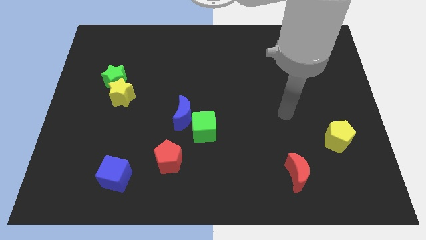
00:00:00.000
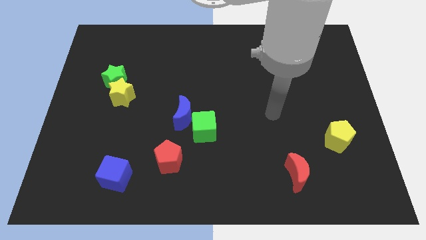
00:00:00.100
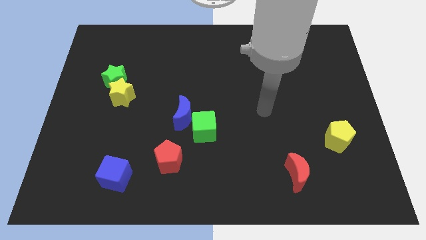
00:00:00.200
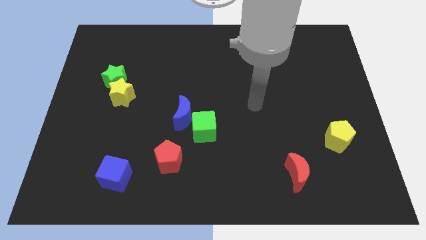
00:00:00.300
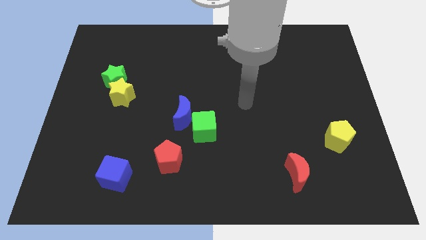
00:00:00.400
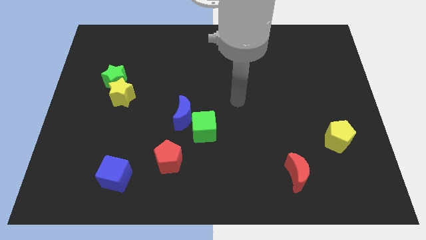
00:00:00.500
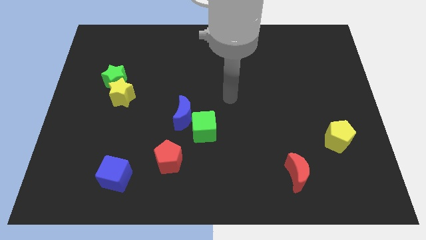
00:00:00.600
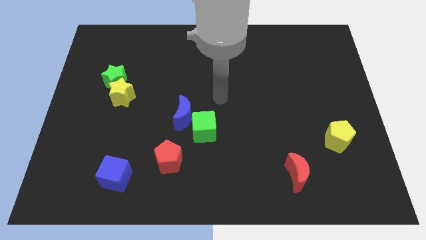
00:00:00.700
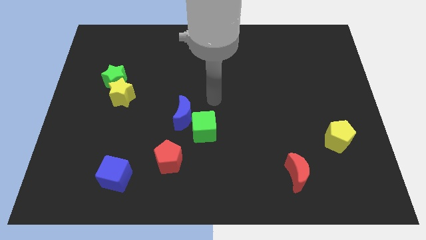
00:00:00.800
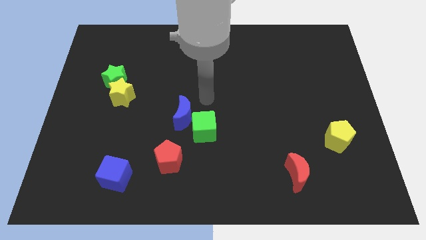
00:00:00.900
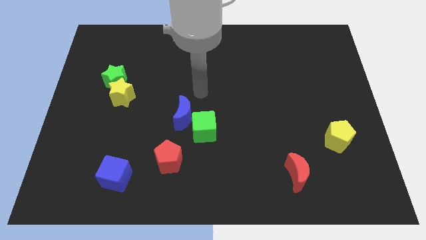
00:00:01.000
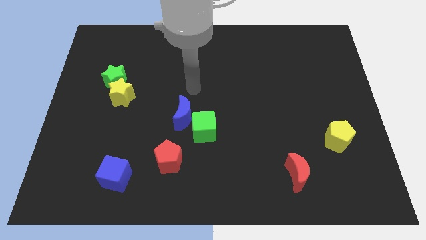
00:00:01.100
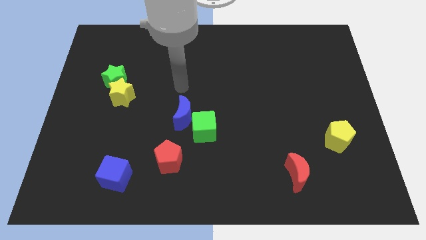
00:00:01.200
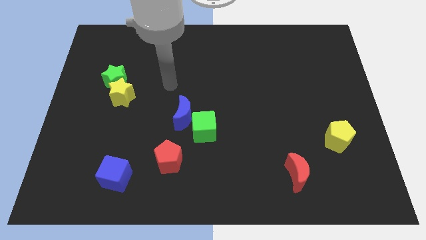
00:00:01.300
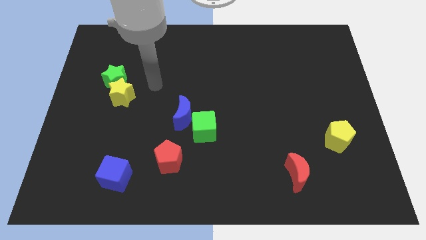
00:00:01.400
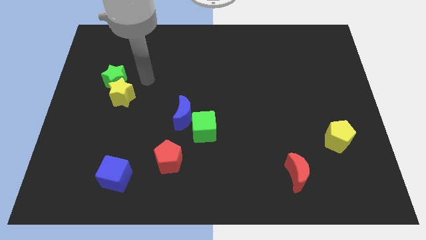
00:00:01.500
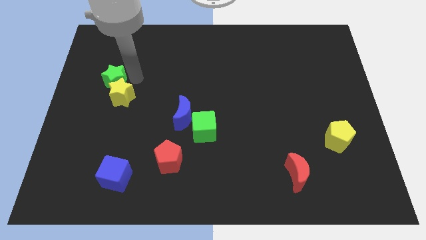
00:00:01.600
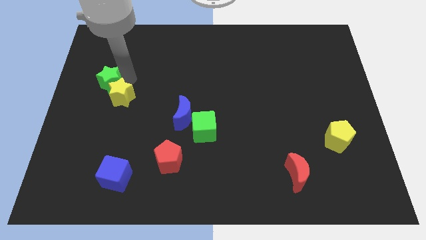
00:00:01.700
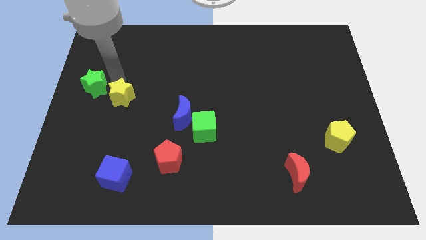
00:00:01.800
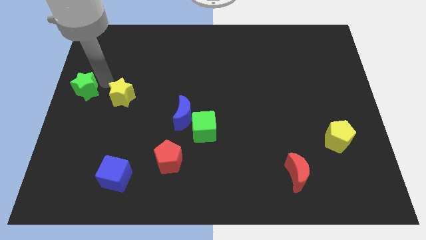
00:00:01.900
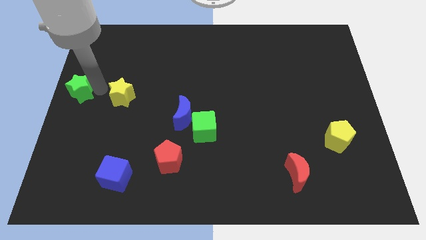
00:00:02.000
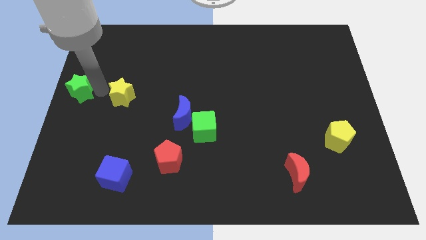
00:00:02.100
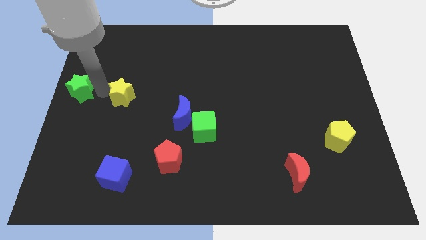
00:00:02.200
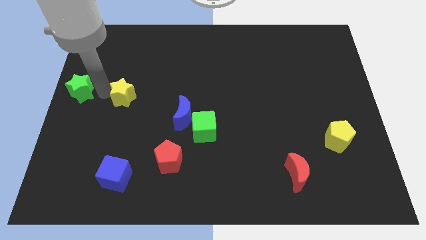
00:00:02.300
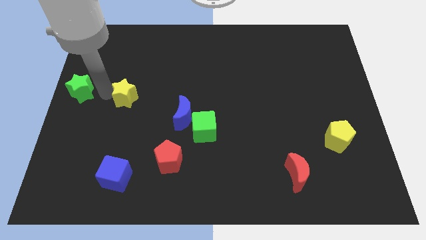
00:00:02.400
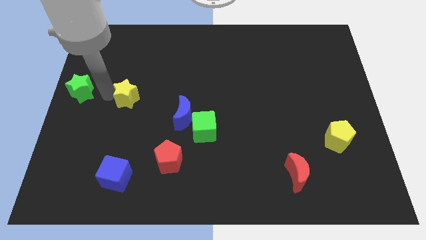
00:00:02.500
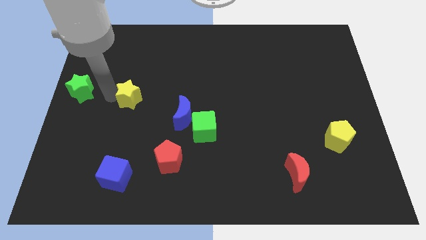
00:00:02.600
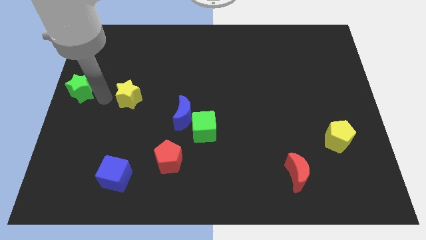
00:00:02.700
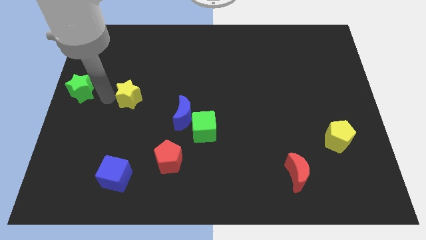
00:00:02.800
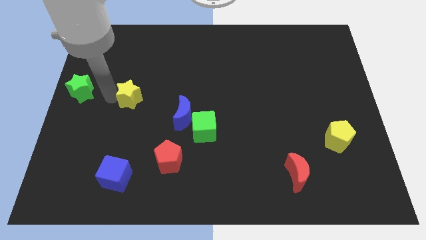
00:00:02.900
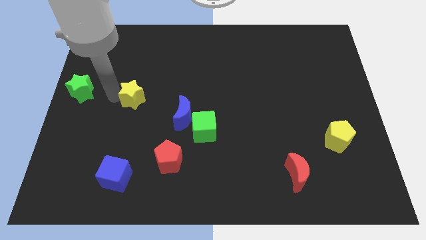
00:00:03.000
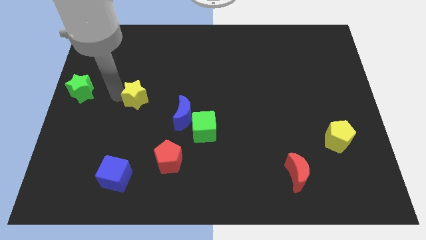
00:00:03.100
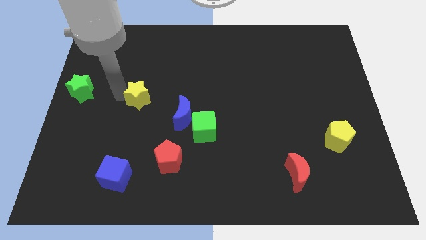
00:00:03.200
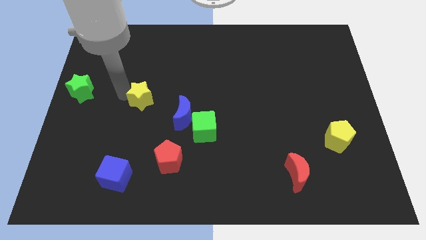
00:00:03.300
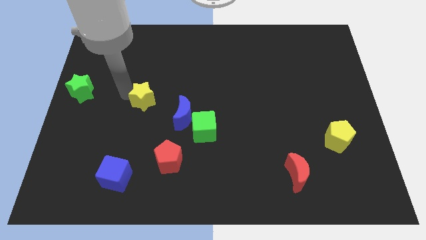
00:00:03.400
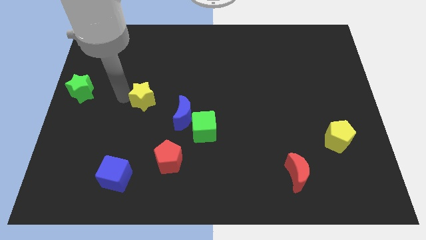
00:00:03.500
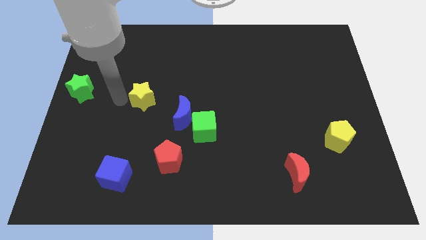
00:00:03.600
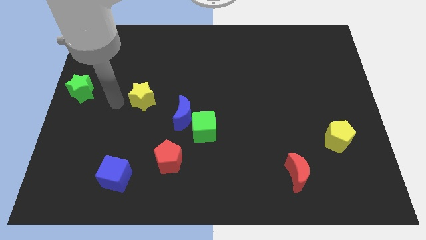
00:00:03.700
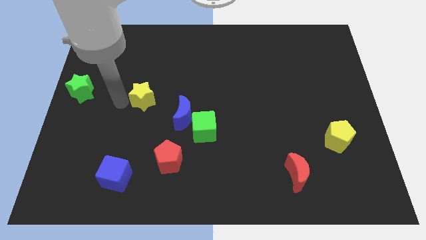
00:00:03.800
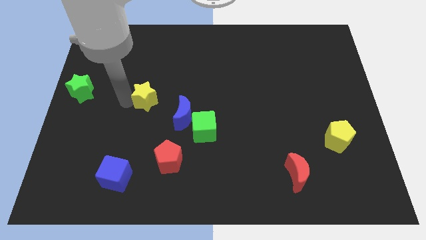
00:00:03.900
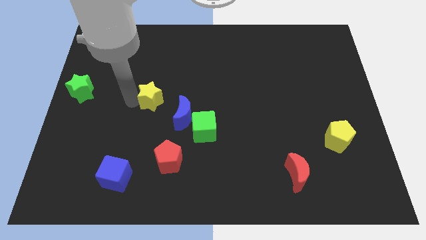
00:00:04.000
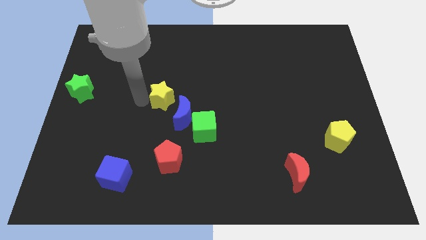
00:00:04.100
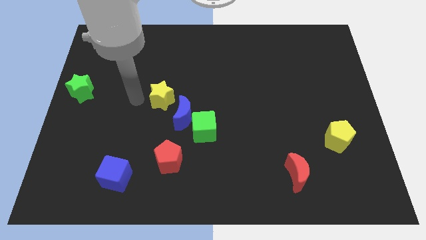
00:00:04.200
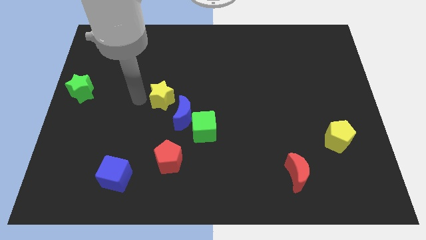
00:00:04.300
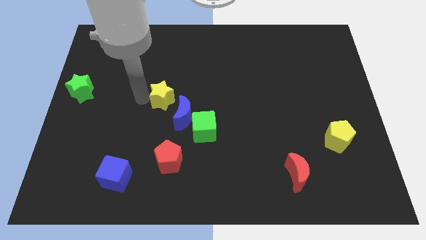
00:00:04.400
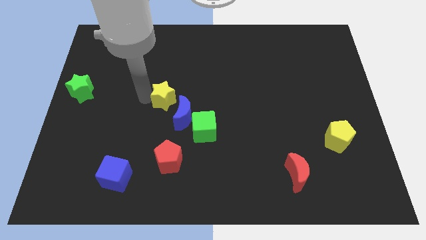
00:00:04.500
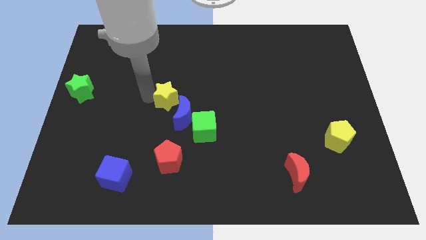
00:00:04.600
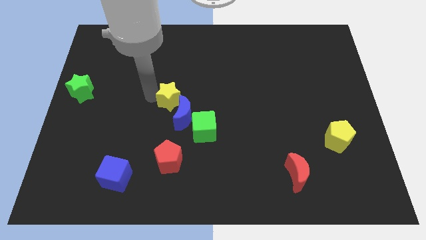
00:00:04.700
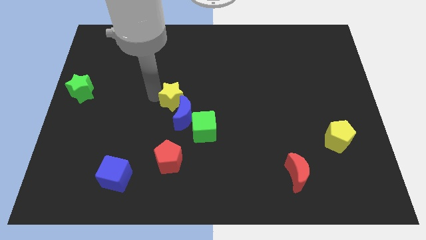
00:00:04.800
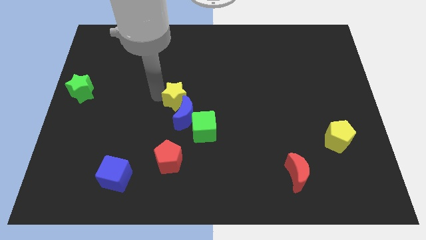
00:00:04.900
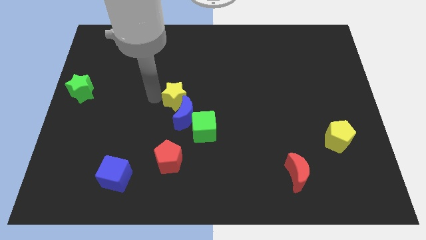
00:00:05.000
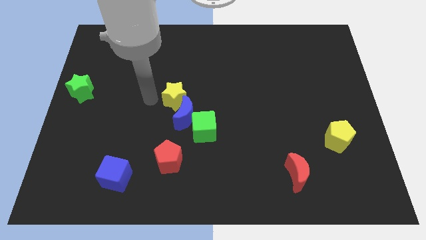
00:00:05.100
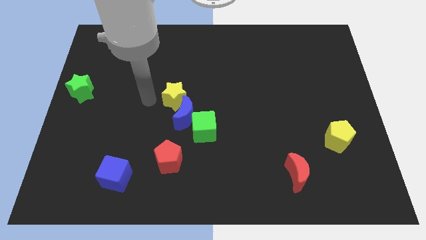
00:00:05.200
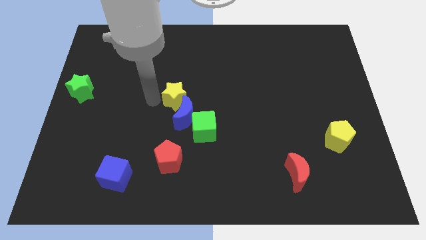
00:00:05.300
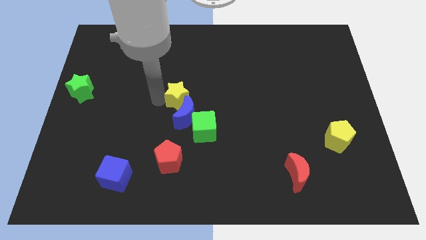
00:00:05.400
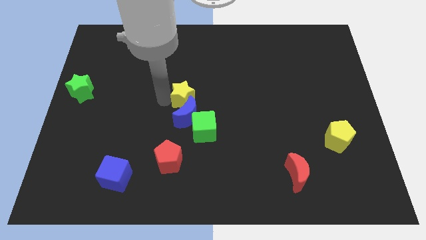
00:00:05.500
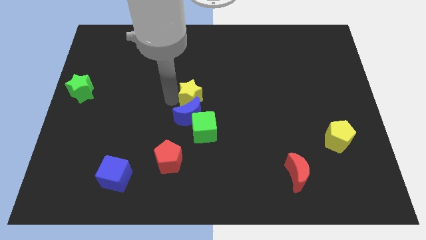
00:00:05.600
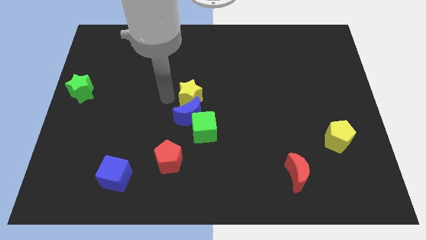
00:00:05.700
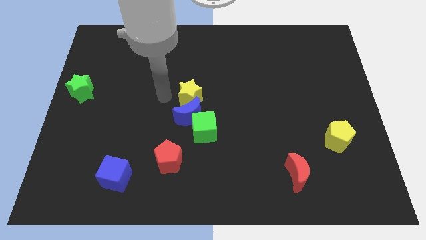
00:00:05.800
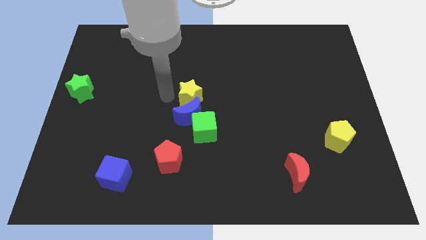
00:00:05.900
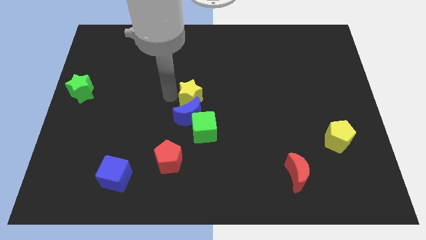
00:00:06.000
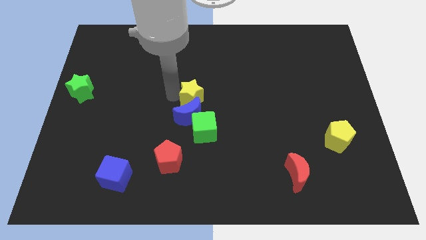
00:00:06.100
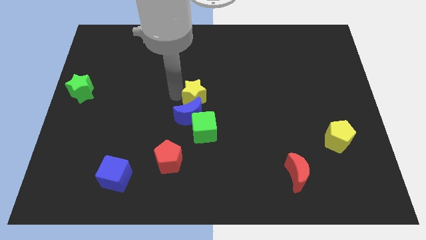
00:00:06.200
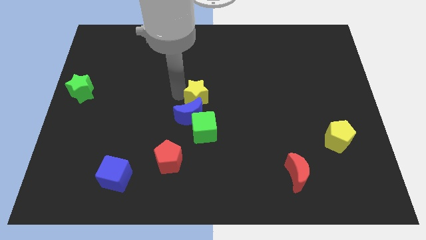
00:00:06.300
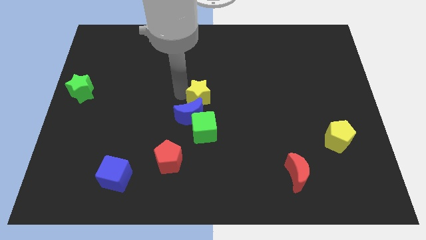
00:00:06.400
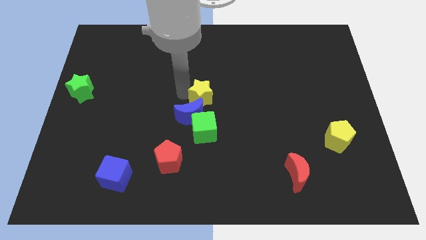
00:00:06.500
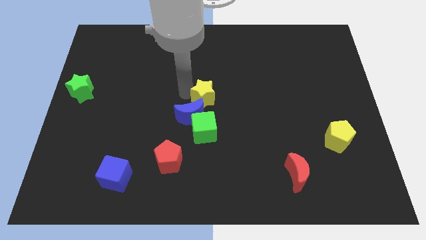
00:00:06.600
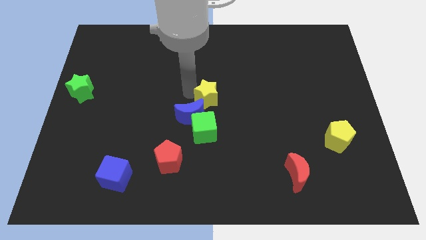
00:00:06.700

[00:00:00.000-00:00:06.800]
slide the yellow star right

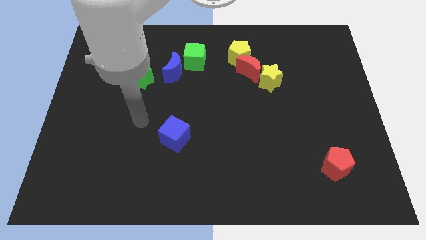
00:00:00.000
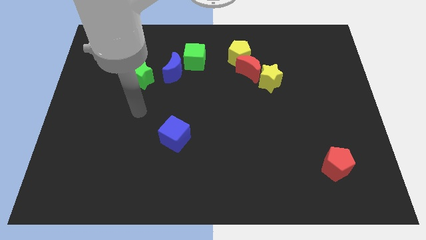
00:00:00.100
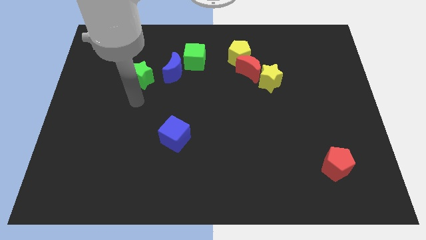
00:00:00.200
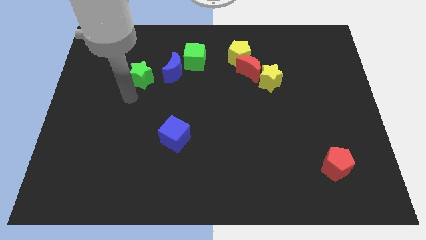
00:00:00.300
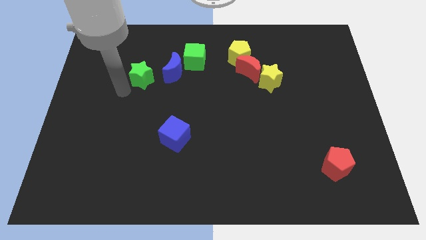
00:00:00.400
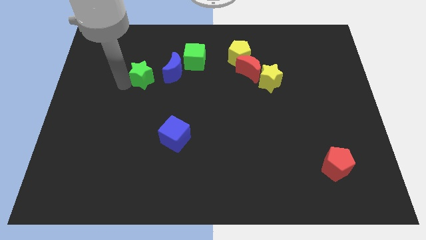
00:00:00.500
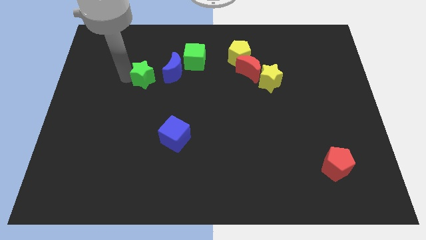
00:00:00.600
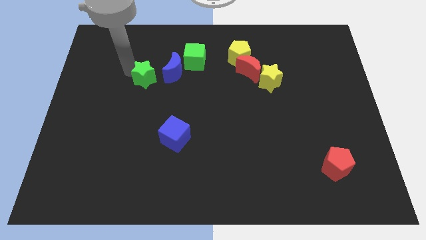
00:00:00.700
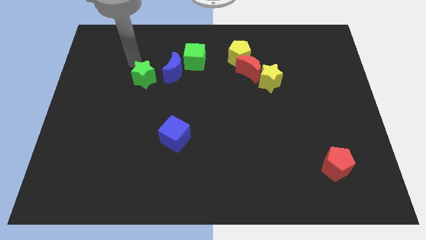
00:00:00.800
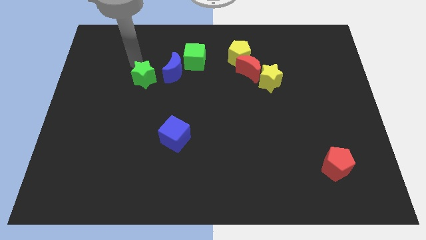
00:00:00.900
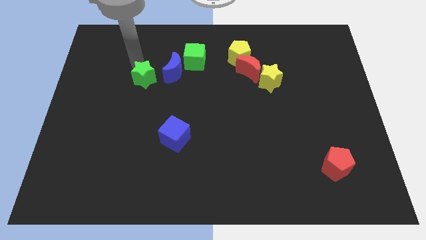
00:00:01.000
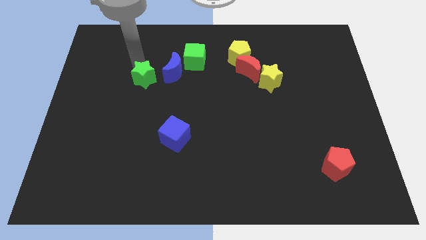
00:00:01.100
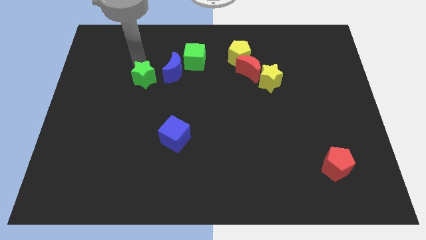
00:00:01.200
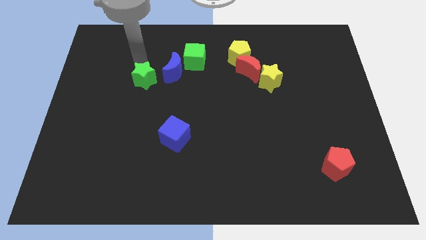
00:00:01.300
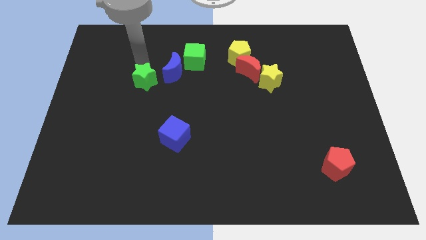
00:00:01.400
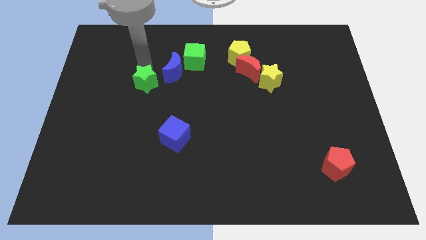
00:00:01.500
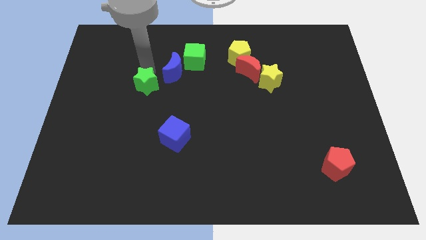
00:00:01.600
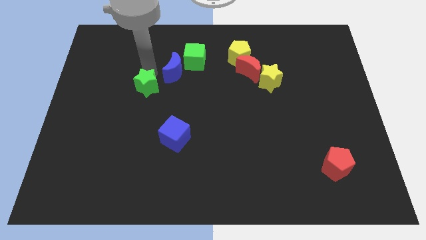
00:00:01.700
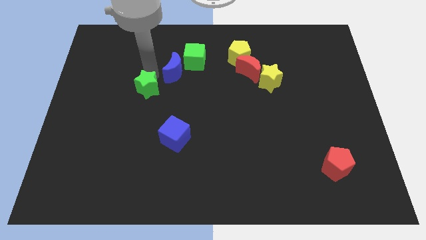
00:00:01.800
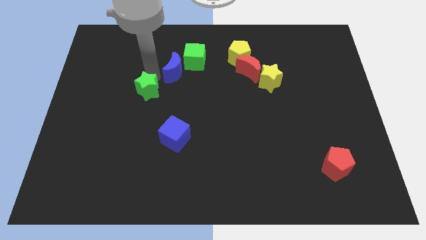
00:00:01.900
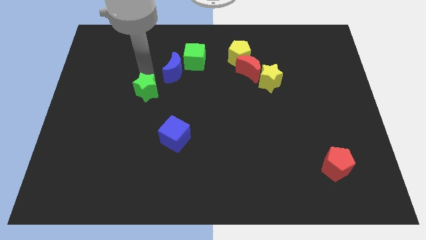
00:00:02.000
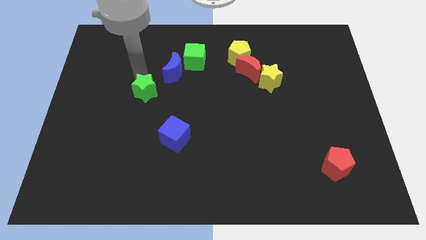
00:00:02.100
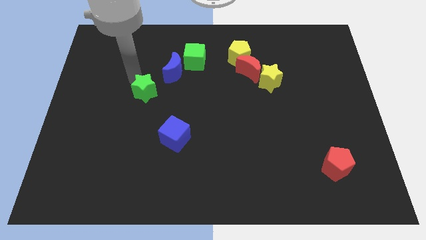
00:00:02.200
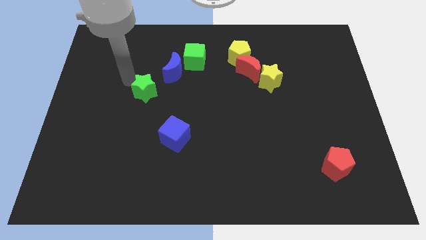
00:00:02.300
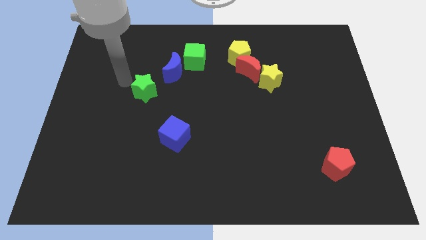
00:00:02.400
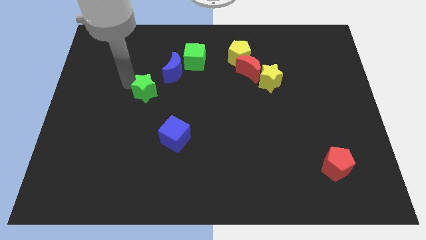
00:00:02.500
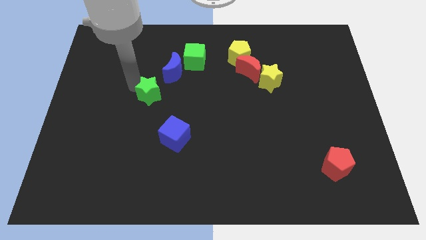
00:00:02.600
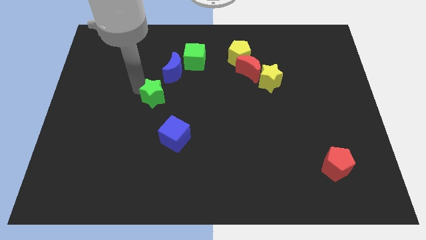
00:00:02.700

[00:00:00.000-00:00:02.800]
move the green star slightly downwards and to the right
